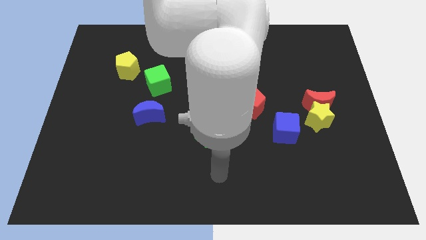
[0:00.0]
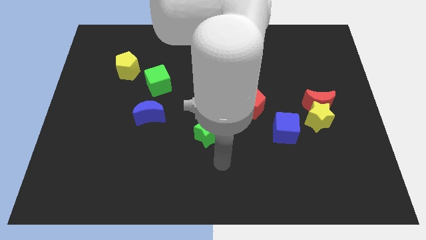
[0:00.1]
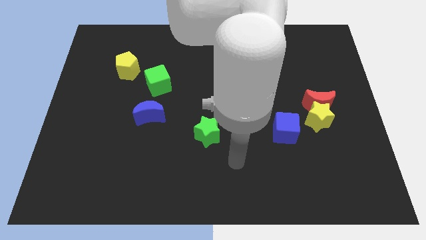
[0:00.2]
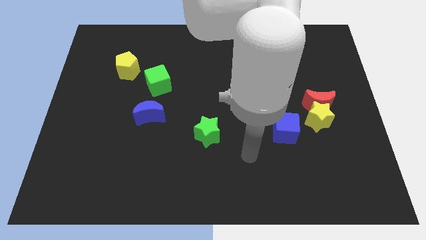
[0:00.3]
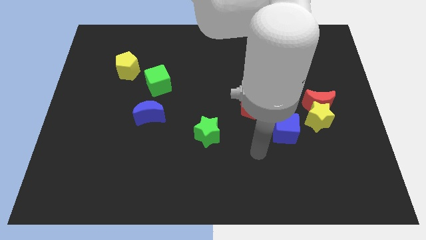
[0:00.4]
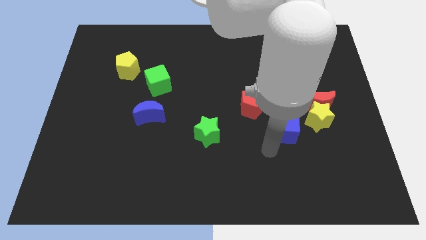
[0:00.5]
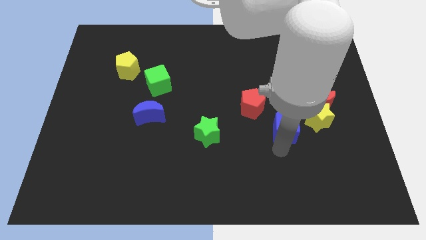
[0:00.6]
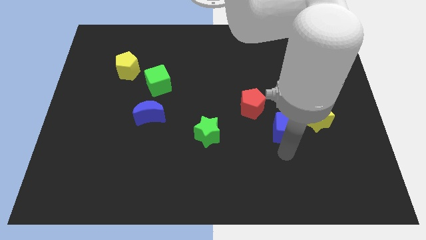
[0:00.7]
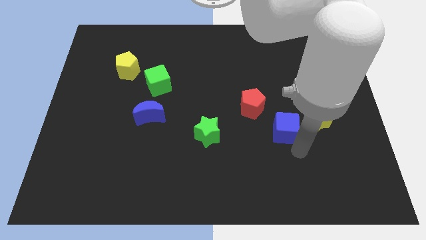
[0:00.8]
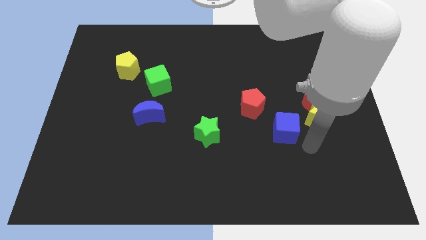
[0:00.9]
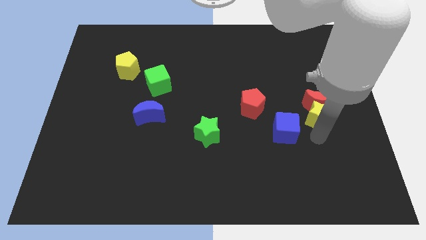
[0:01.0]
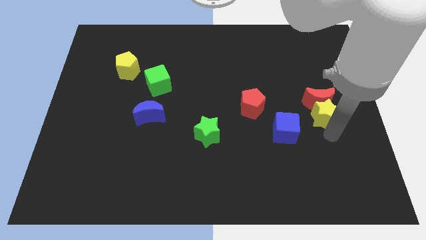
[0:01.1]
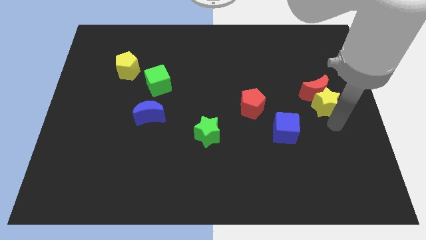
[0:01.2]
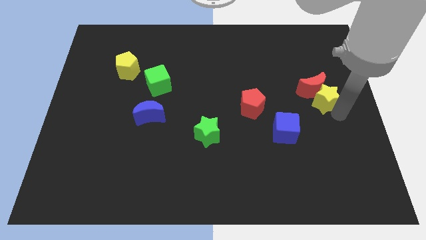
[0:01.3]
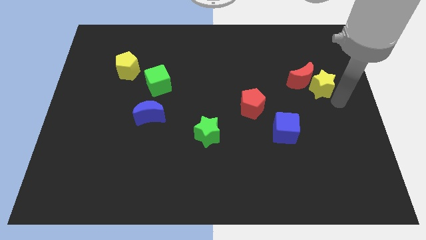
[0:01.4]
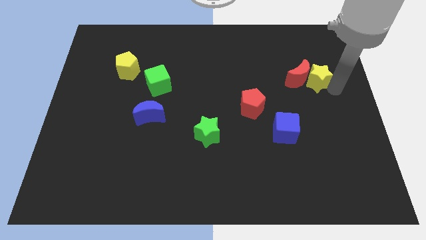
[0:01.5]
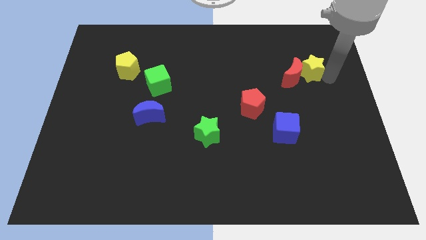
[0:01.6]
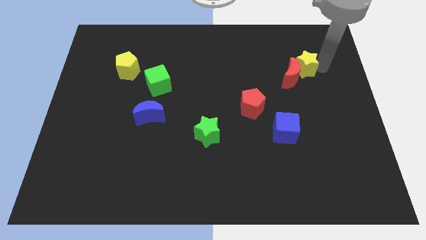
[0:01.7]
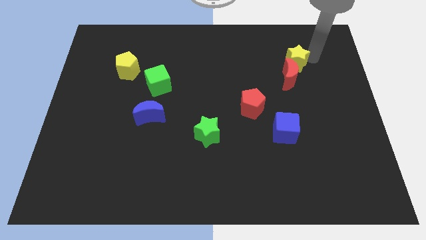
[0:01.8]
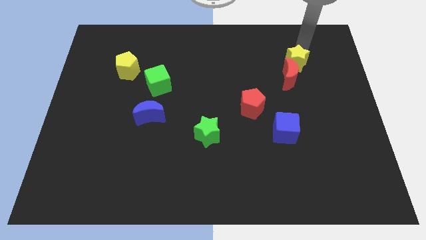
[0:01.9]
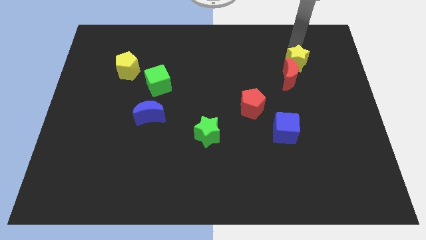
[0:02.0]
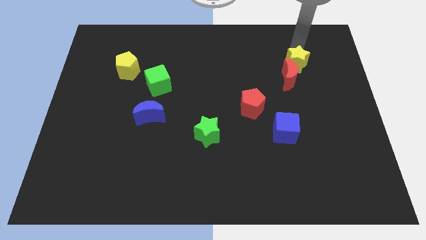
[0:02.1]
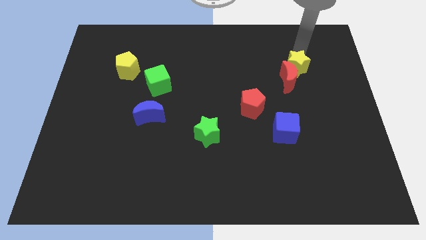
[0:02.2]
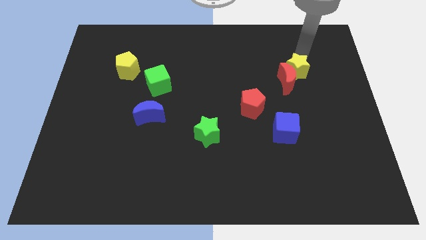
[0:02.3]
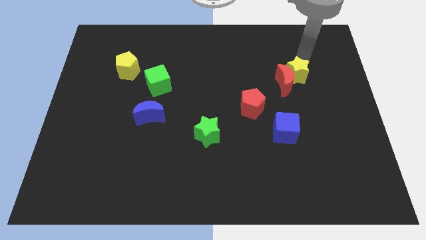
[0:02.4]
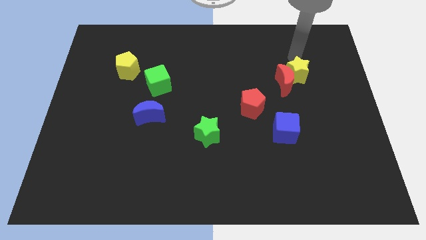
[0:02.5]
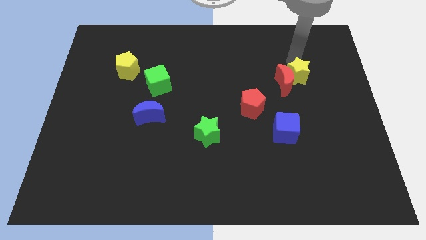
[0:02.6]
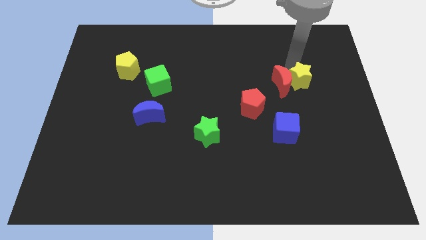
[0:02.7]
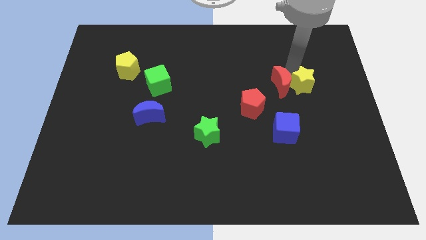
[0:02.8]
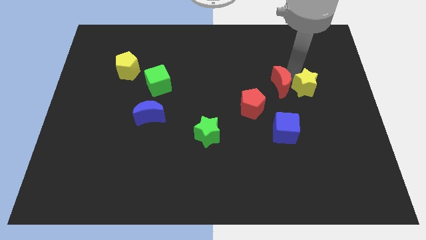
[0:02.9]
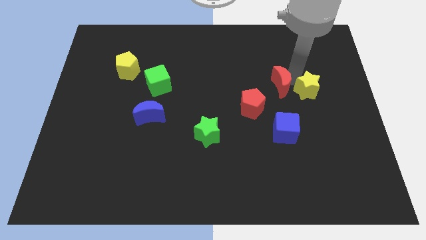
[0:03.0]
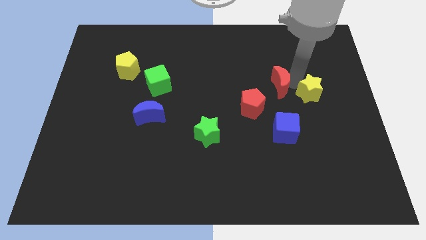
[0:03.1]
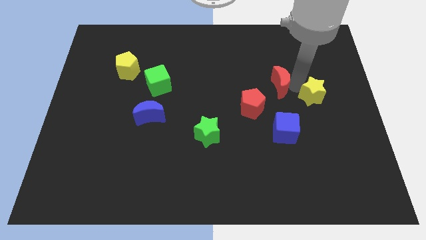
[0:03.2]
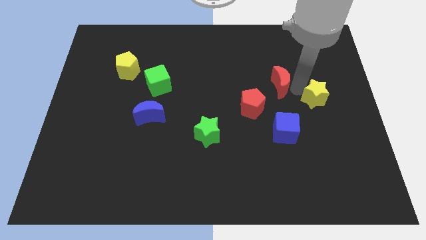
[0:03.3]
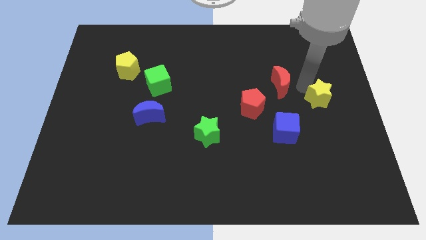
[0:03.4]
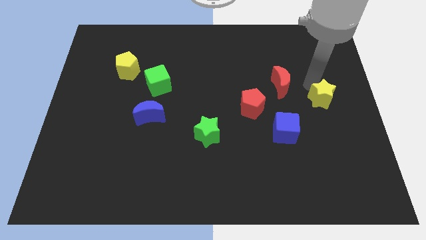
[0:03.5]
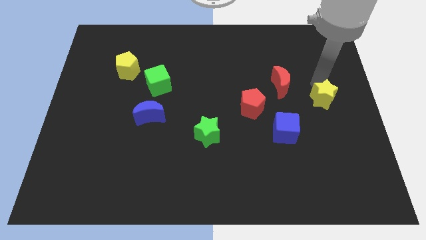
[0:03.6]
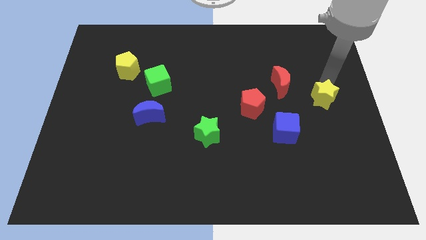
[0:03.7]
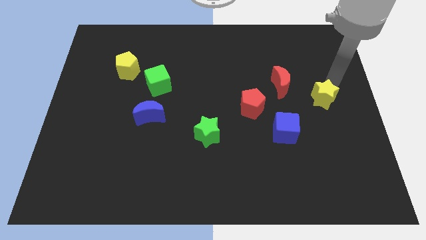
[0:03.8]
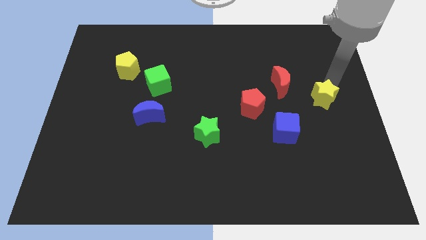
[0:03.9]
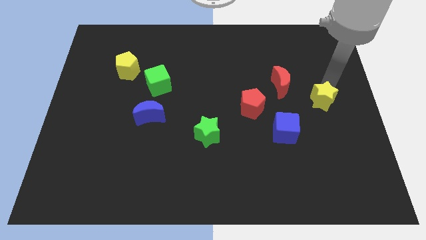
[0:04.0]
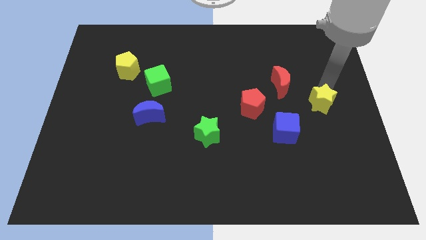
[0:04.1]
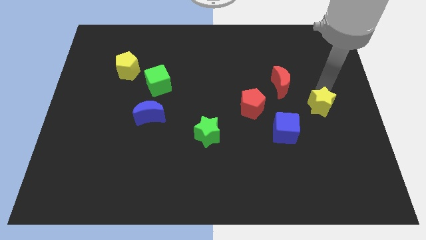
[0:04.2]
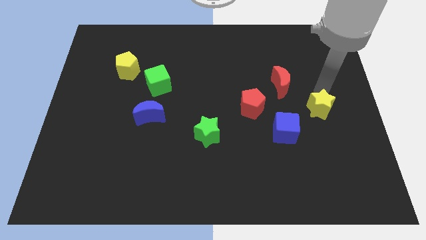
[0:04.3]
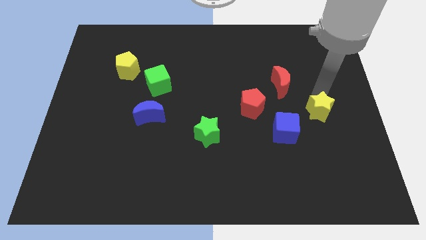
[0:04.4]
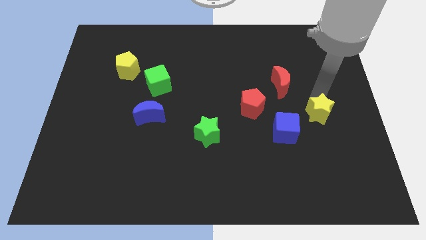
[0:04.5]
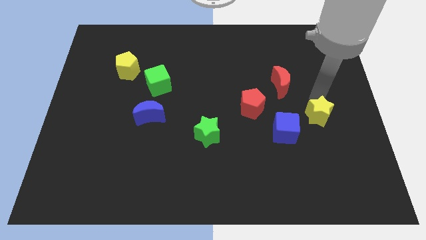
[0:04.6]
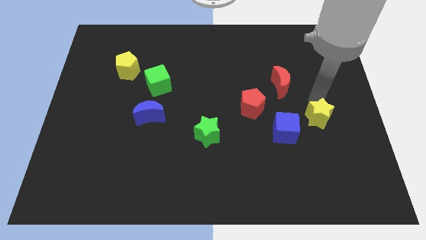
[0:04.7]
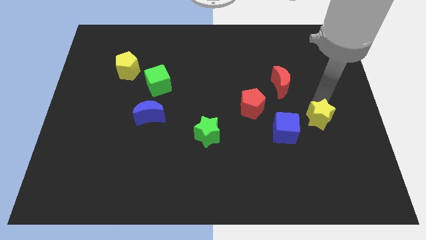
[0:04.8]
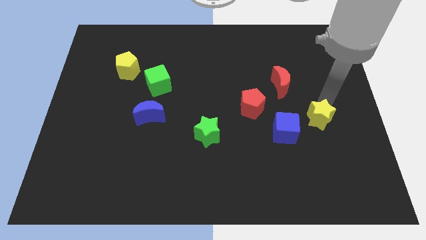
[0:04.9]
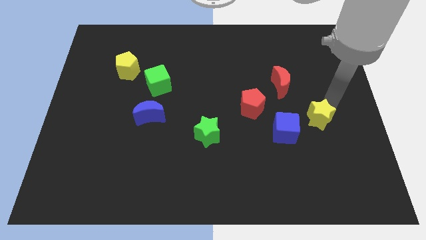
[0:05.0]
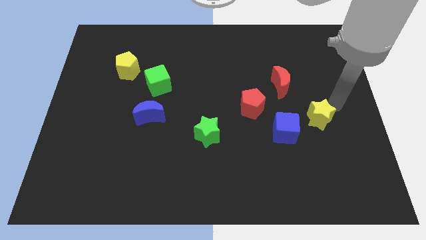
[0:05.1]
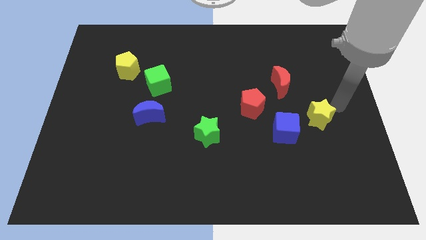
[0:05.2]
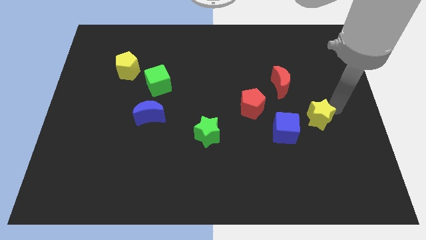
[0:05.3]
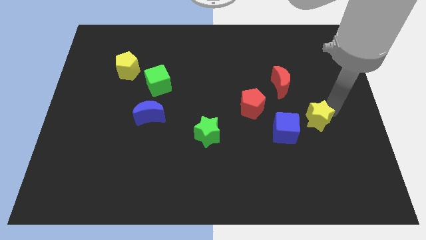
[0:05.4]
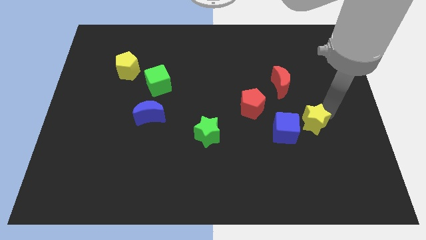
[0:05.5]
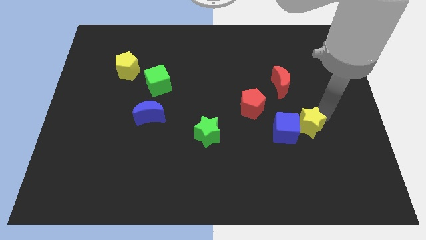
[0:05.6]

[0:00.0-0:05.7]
move the yellow star towards the blue cube
